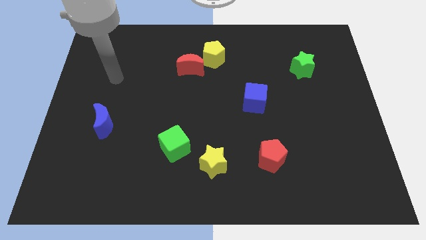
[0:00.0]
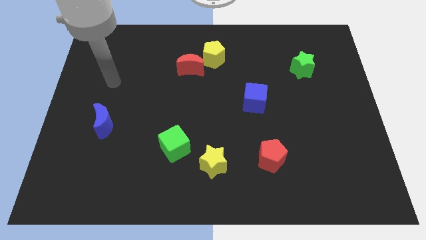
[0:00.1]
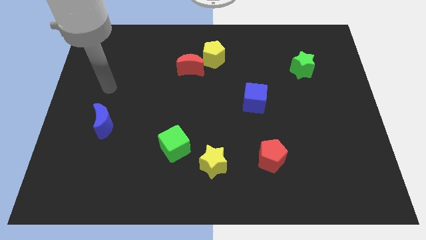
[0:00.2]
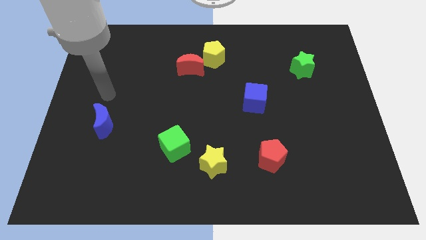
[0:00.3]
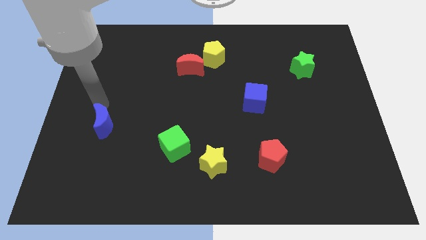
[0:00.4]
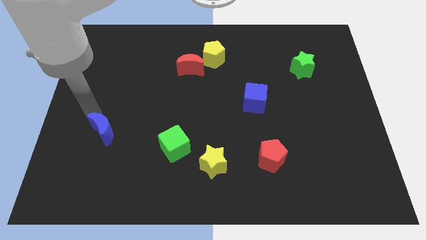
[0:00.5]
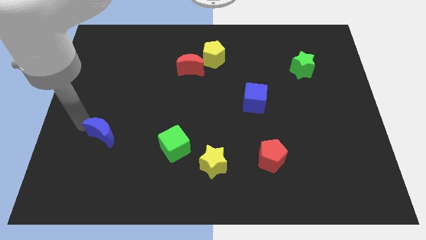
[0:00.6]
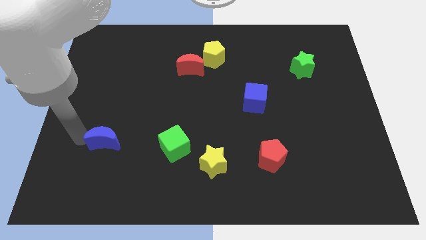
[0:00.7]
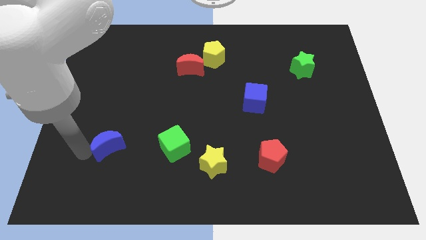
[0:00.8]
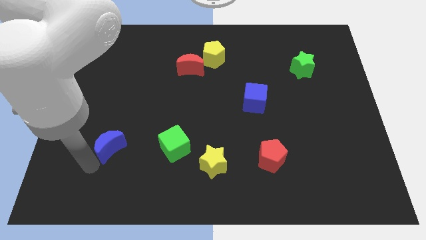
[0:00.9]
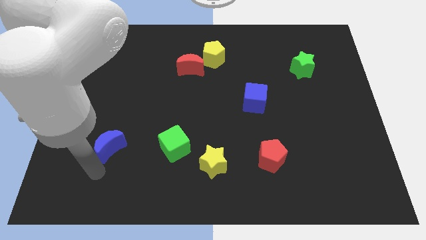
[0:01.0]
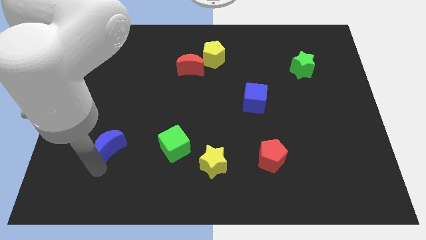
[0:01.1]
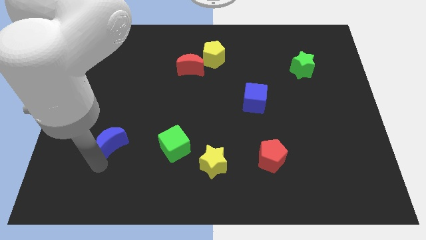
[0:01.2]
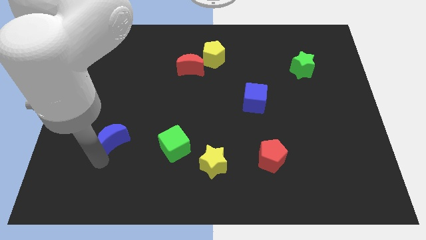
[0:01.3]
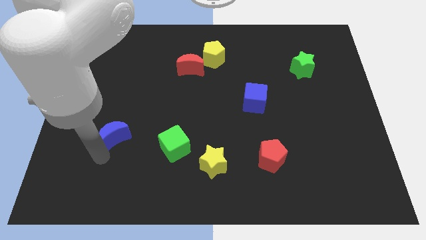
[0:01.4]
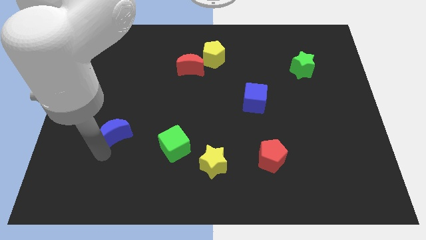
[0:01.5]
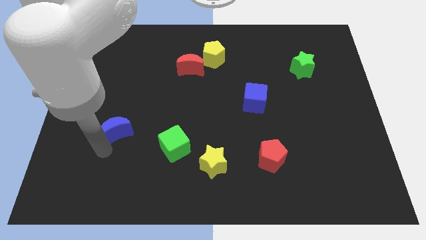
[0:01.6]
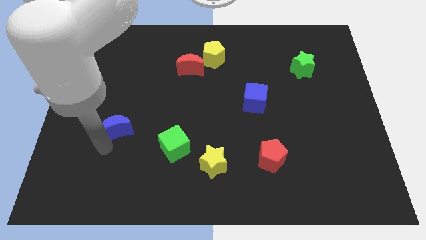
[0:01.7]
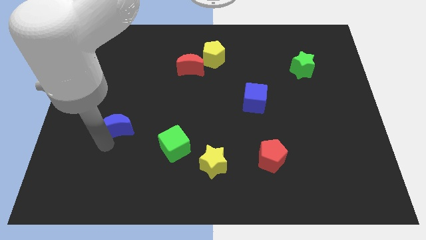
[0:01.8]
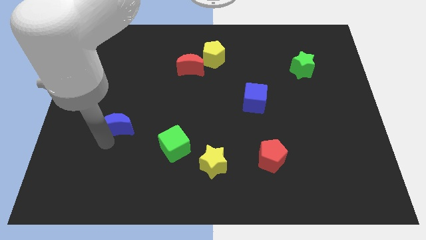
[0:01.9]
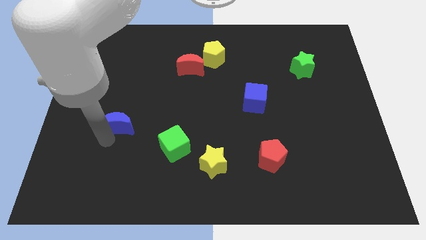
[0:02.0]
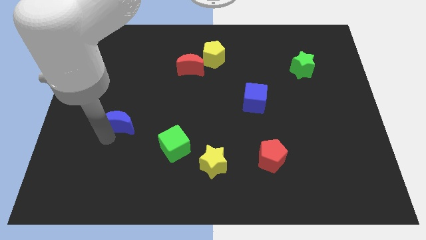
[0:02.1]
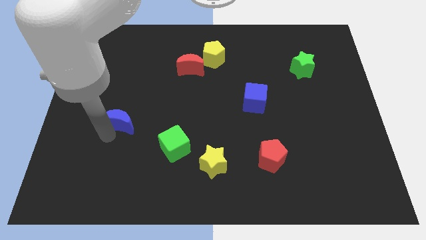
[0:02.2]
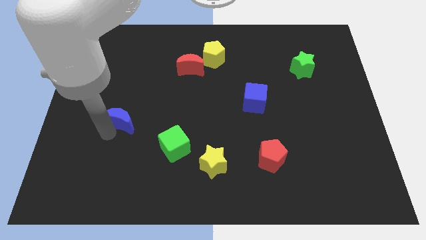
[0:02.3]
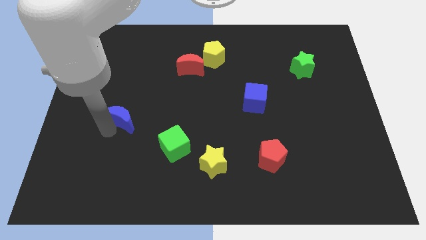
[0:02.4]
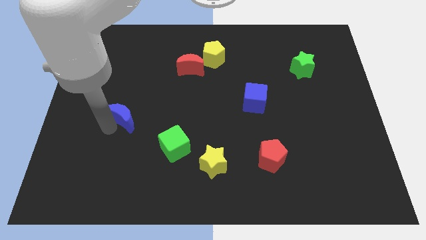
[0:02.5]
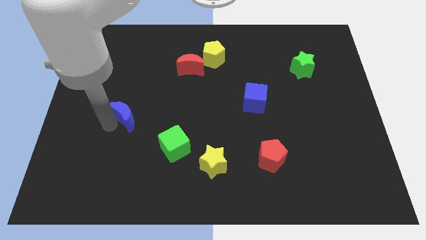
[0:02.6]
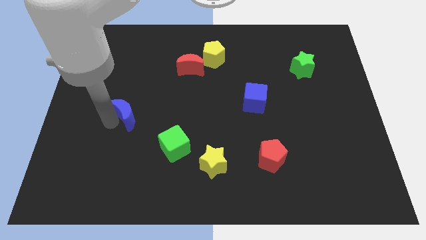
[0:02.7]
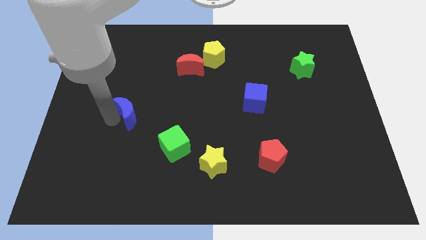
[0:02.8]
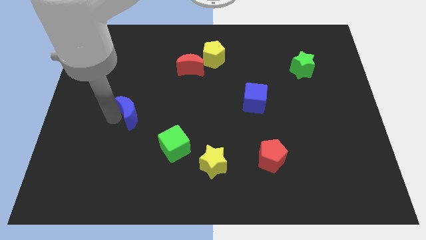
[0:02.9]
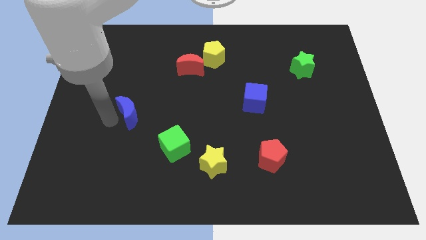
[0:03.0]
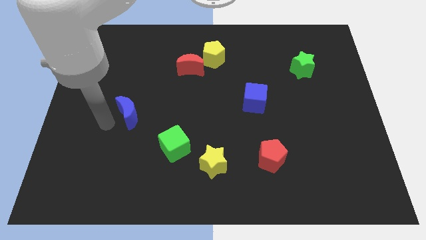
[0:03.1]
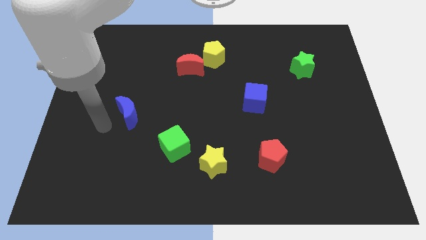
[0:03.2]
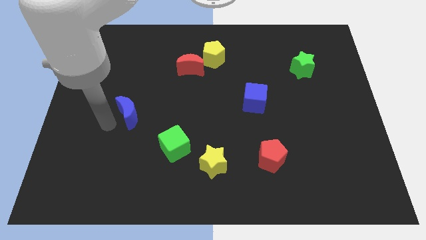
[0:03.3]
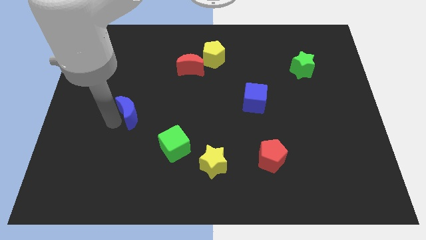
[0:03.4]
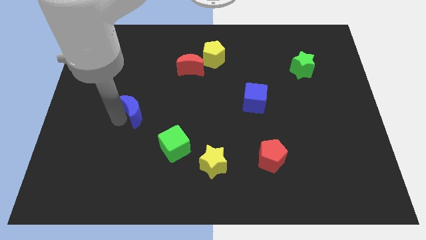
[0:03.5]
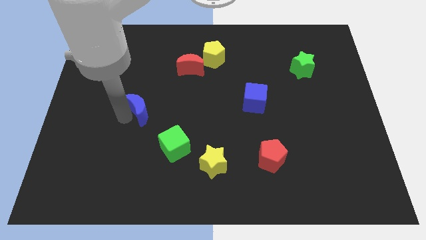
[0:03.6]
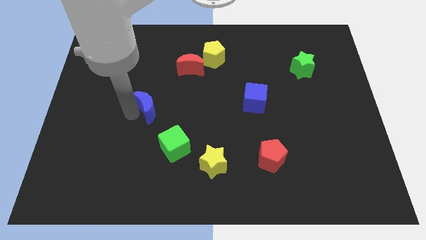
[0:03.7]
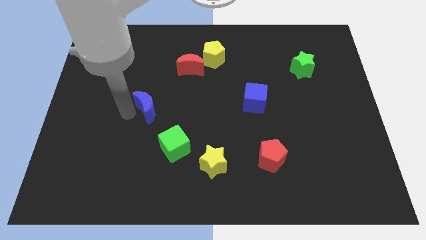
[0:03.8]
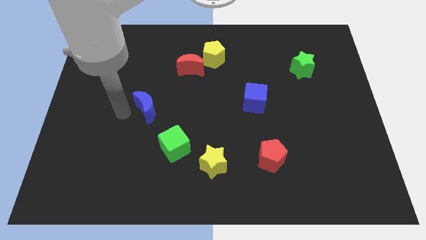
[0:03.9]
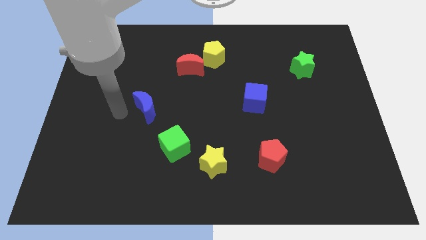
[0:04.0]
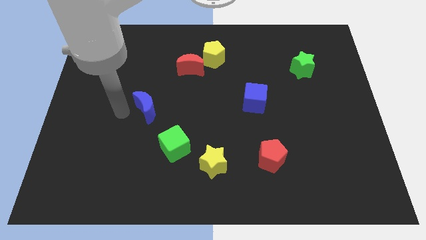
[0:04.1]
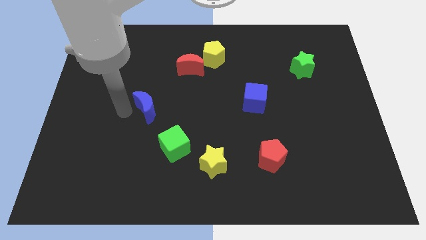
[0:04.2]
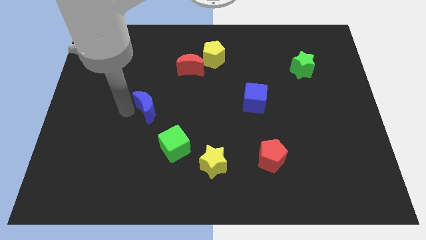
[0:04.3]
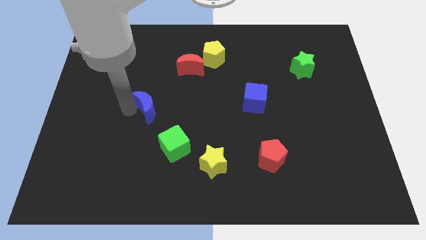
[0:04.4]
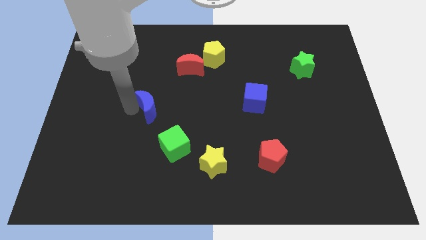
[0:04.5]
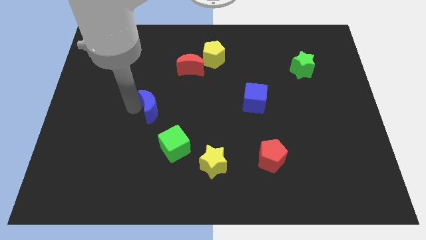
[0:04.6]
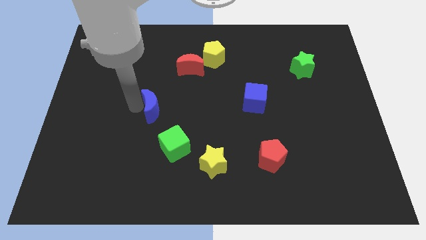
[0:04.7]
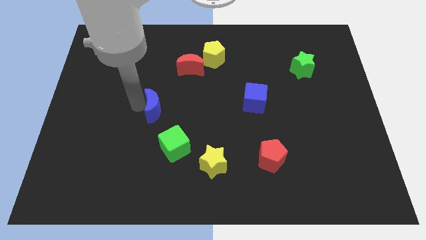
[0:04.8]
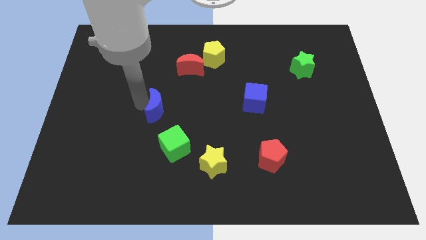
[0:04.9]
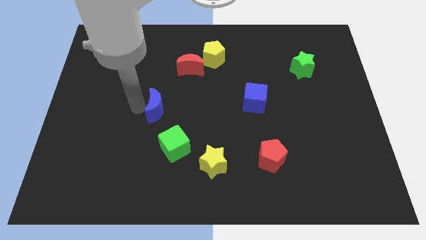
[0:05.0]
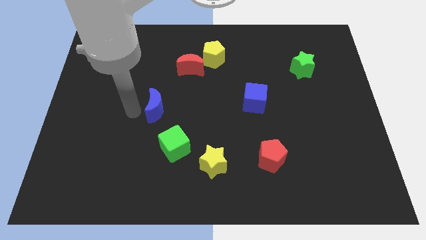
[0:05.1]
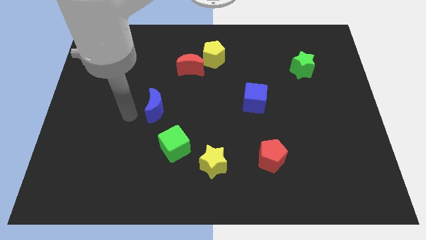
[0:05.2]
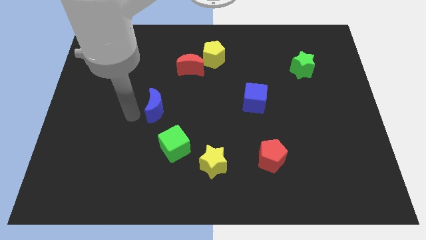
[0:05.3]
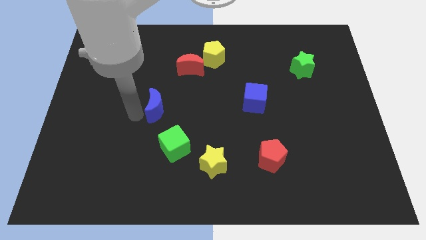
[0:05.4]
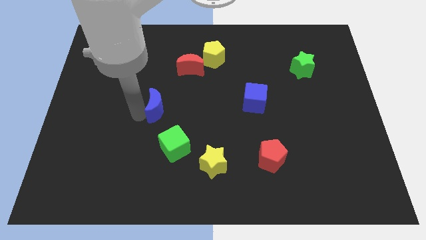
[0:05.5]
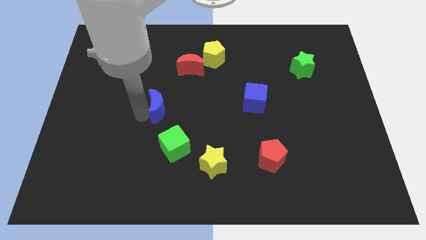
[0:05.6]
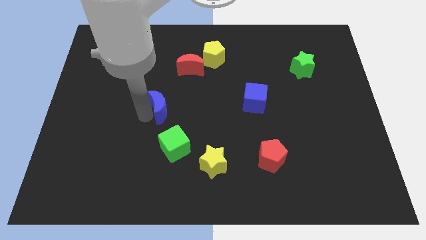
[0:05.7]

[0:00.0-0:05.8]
move the blue moon to the middle
